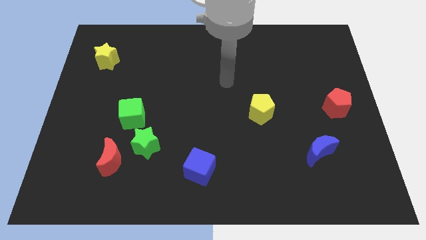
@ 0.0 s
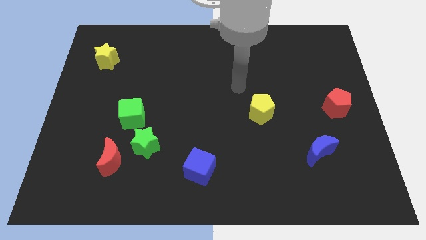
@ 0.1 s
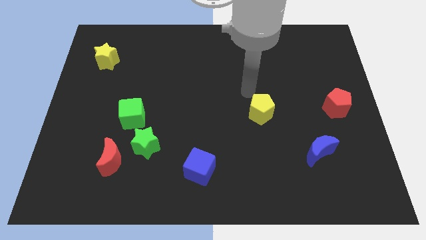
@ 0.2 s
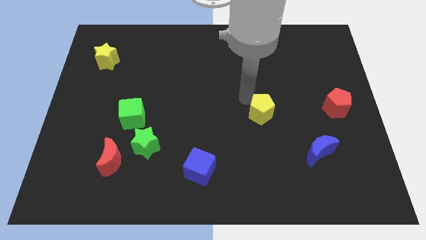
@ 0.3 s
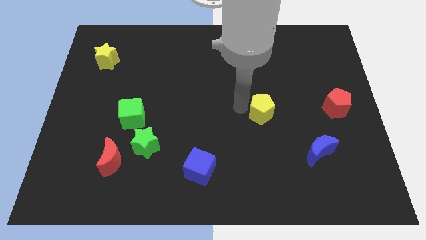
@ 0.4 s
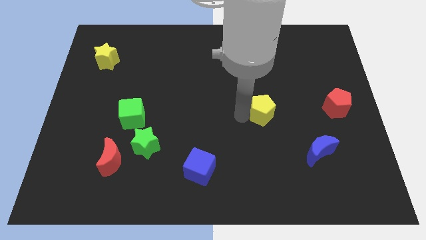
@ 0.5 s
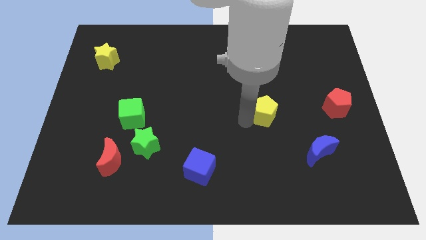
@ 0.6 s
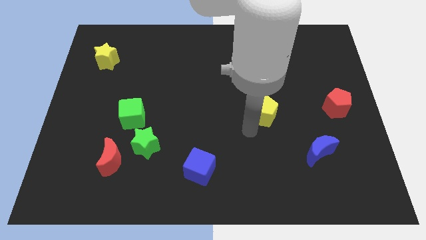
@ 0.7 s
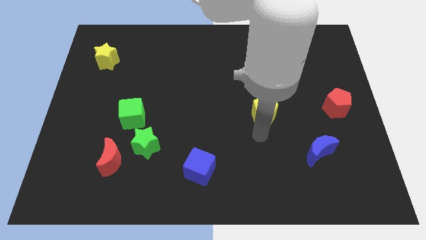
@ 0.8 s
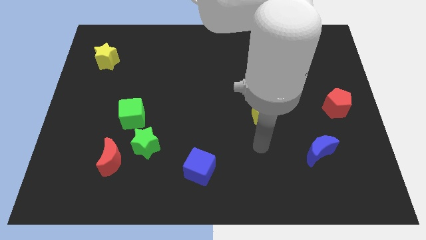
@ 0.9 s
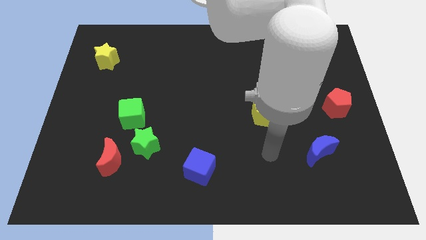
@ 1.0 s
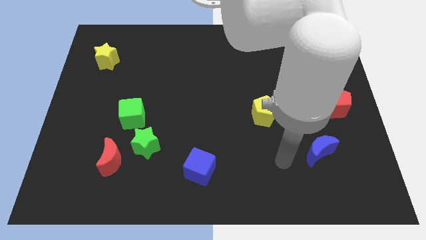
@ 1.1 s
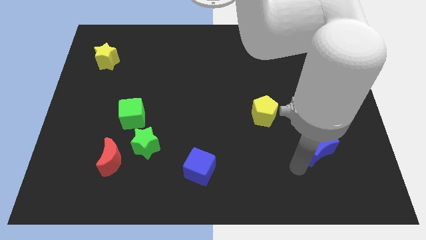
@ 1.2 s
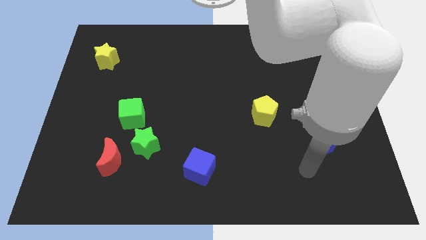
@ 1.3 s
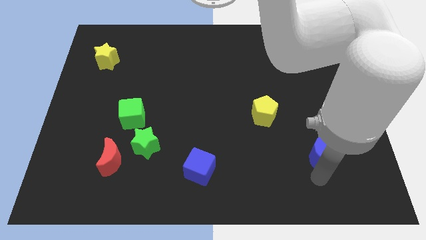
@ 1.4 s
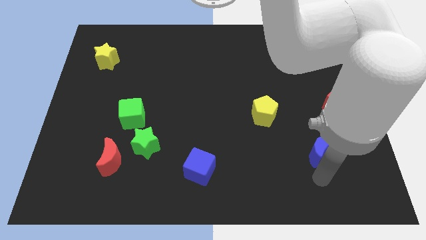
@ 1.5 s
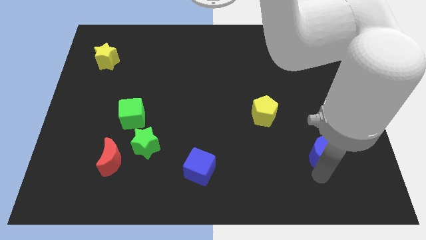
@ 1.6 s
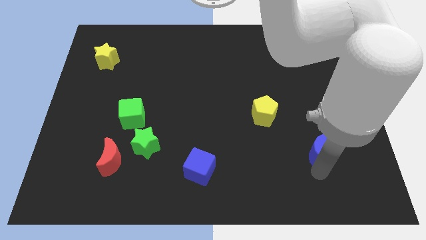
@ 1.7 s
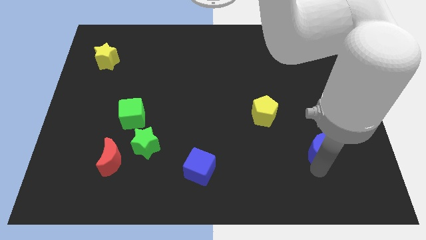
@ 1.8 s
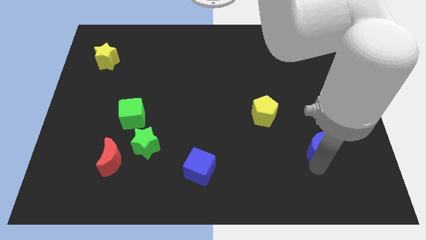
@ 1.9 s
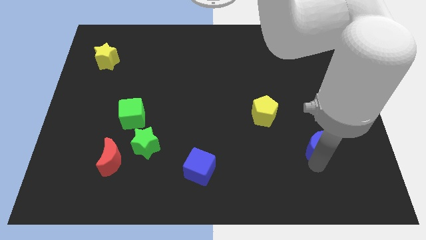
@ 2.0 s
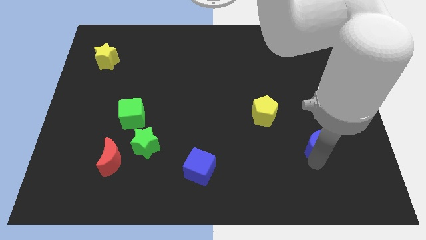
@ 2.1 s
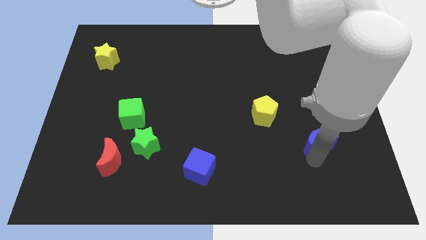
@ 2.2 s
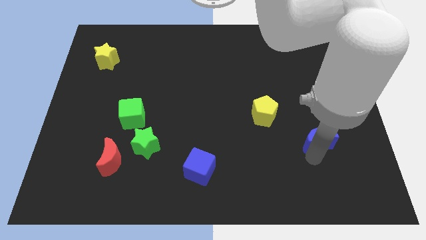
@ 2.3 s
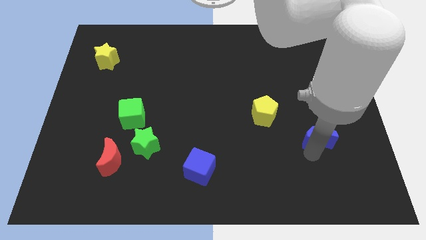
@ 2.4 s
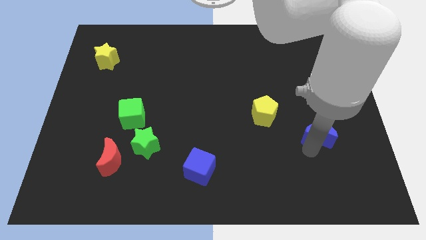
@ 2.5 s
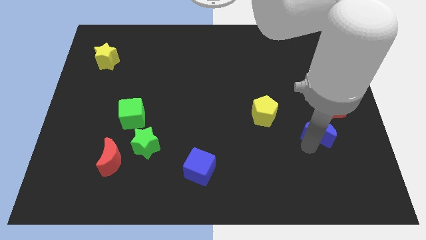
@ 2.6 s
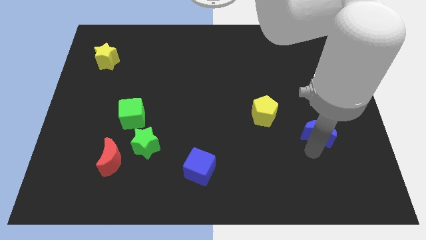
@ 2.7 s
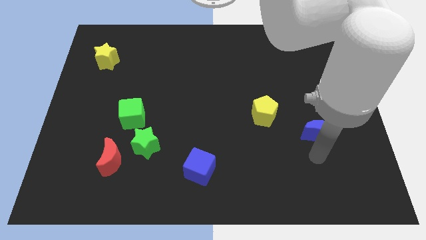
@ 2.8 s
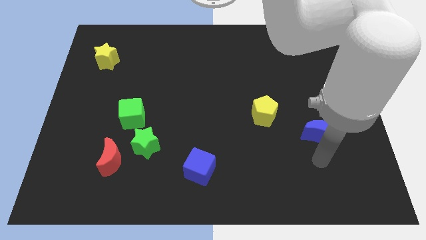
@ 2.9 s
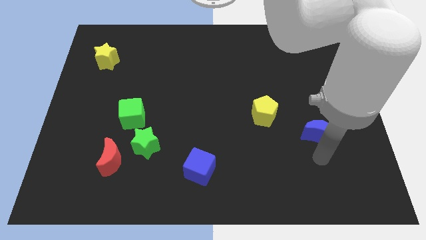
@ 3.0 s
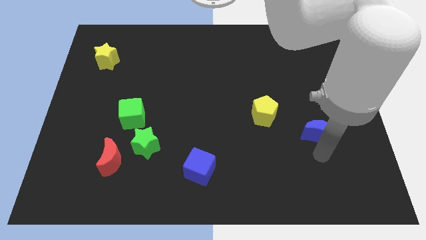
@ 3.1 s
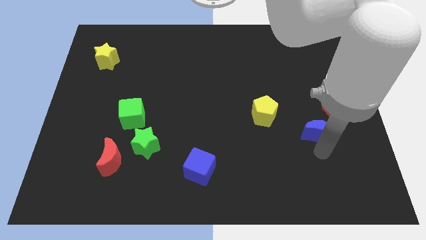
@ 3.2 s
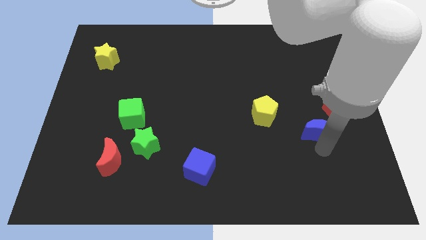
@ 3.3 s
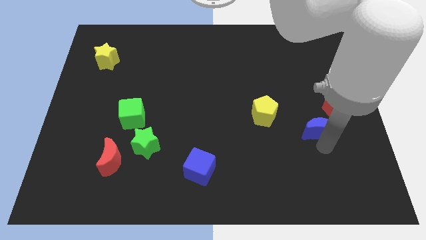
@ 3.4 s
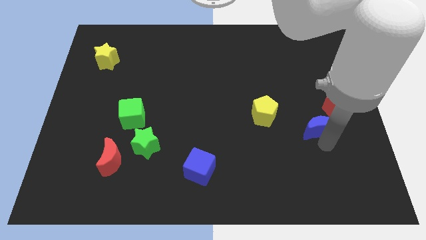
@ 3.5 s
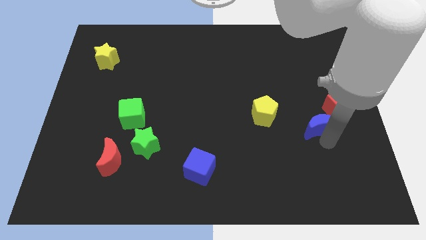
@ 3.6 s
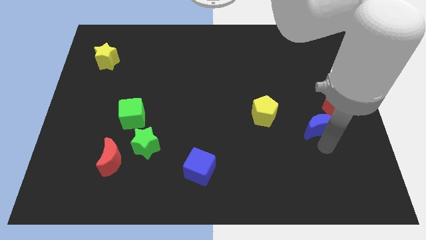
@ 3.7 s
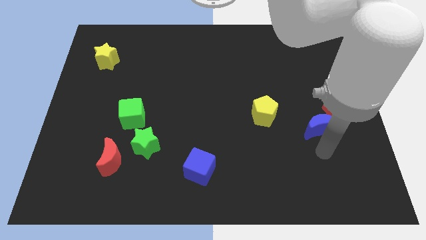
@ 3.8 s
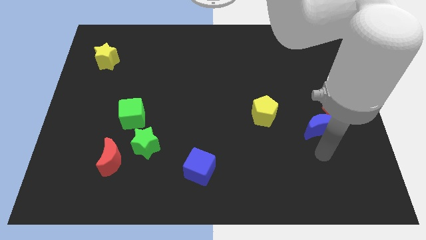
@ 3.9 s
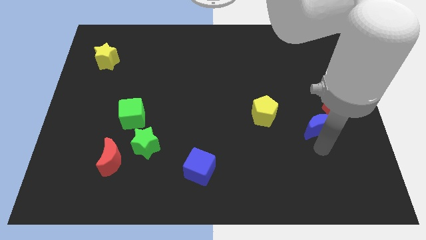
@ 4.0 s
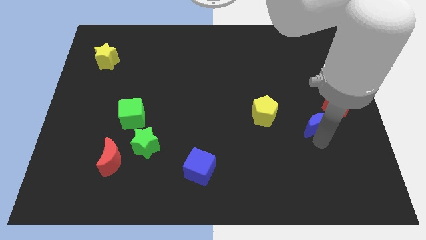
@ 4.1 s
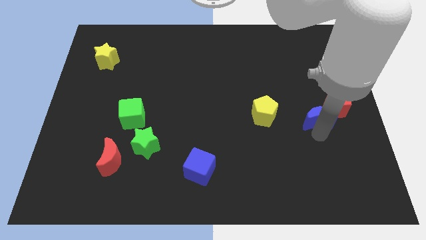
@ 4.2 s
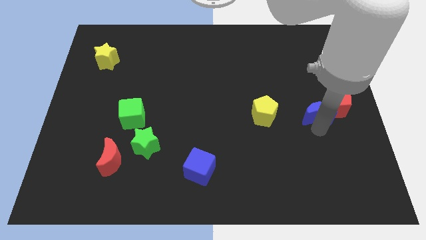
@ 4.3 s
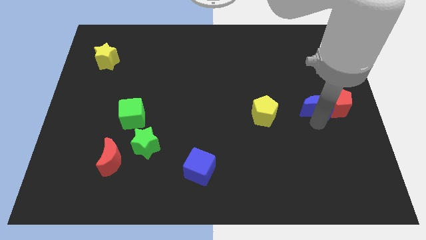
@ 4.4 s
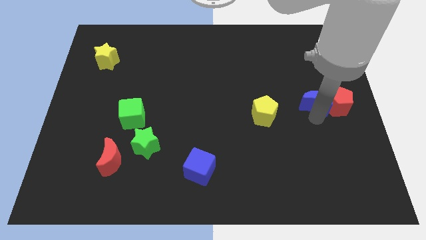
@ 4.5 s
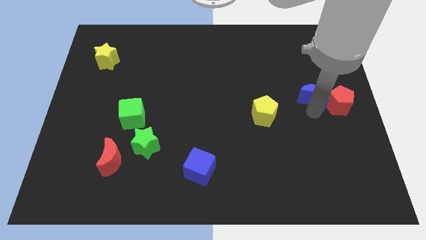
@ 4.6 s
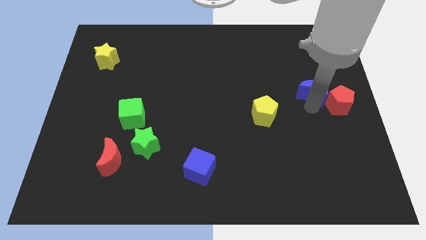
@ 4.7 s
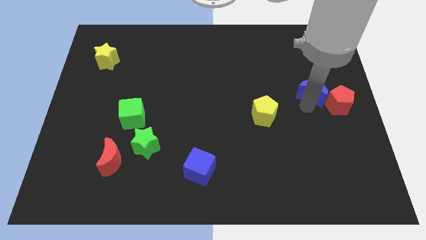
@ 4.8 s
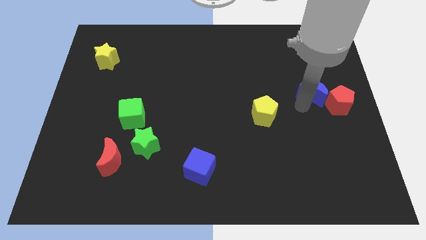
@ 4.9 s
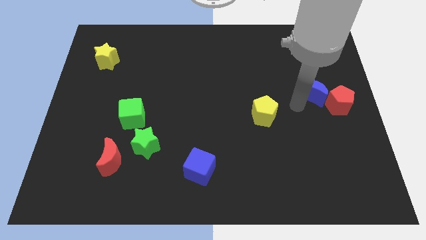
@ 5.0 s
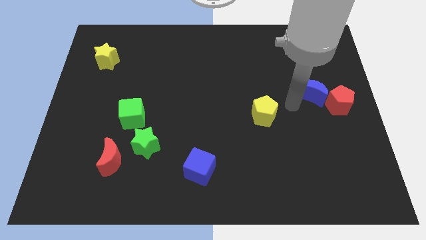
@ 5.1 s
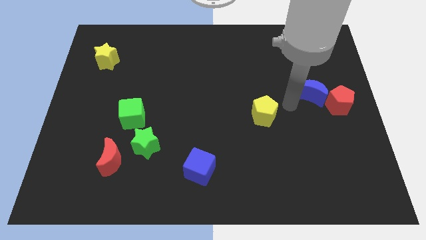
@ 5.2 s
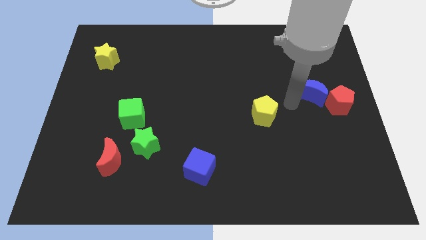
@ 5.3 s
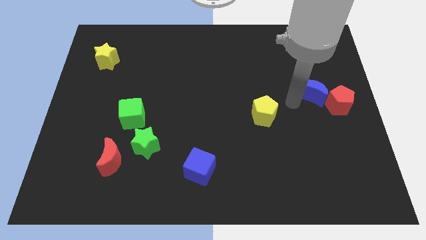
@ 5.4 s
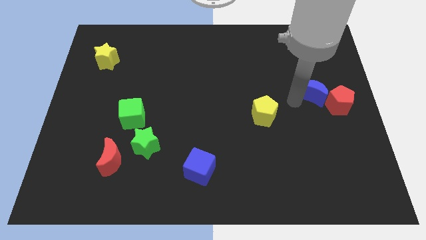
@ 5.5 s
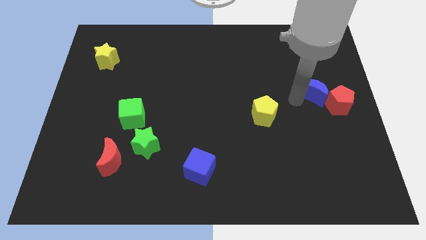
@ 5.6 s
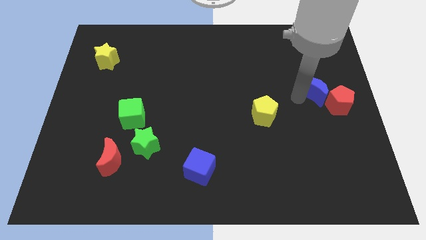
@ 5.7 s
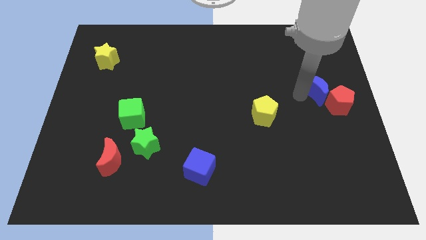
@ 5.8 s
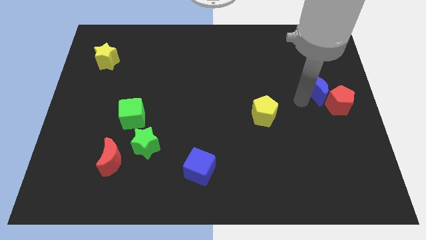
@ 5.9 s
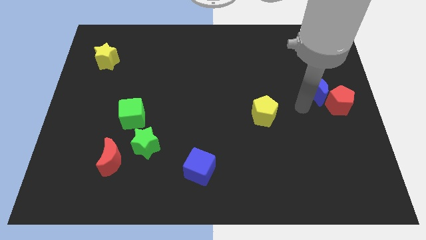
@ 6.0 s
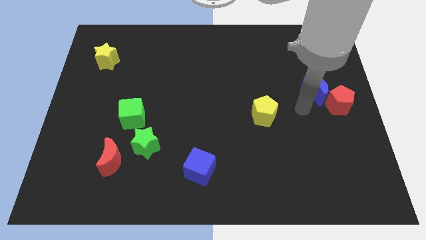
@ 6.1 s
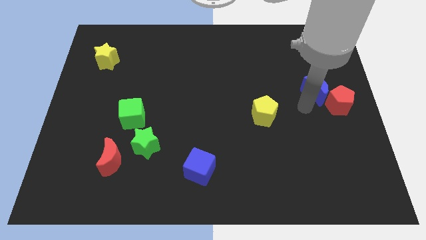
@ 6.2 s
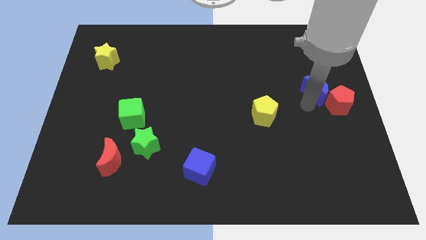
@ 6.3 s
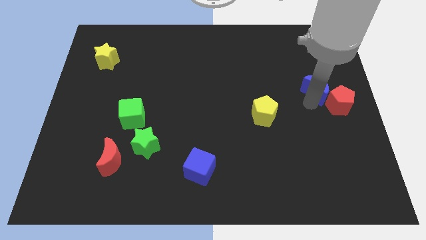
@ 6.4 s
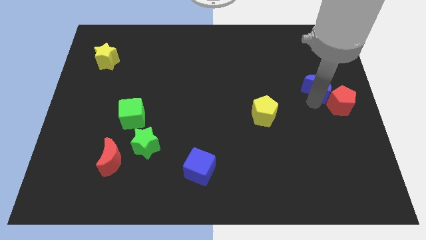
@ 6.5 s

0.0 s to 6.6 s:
put the blue moon to the top of the red pentagon

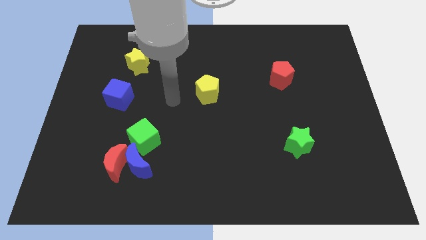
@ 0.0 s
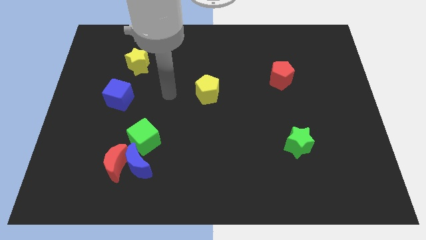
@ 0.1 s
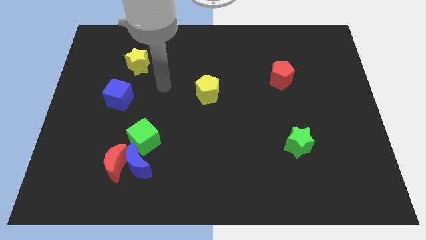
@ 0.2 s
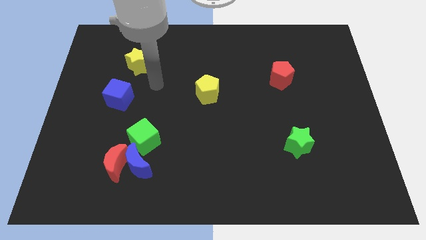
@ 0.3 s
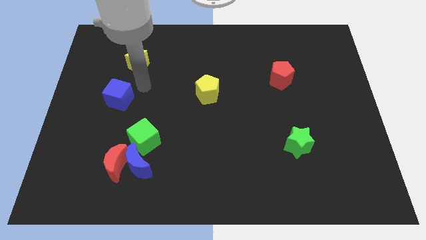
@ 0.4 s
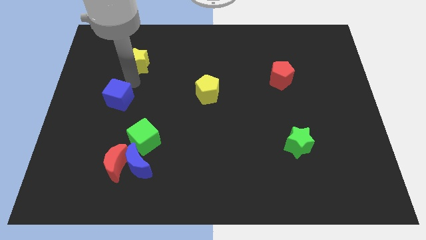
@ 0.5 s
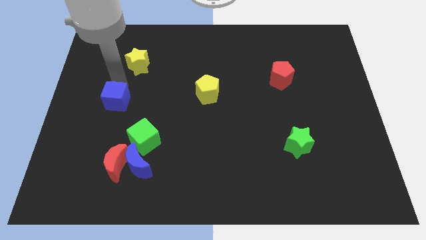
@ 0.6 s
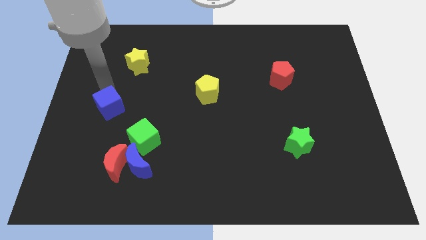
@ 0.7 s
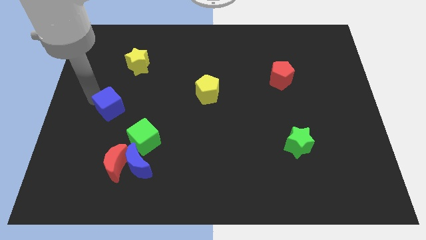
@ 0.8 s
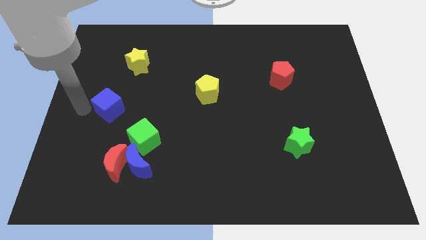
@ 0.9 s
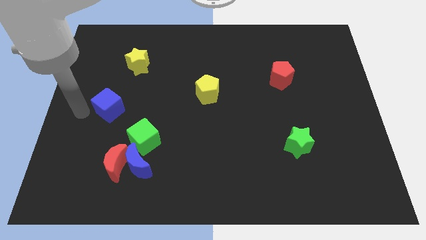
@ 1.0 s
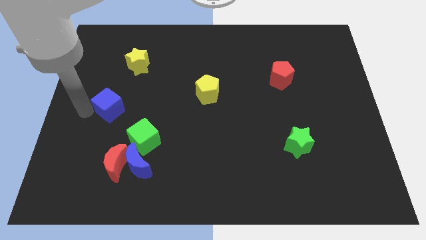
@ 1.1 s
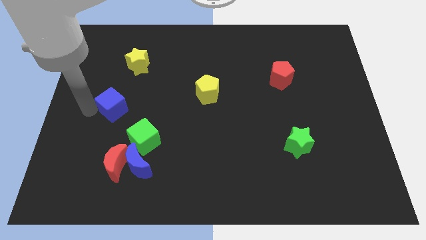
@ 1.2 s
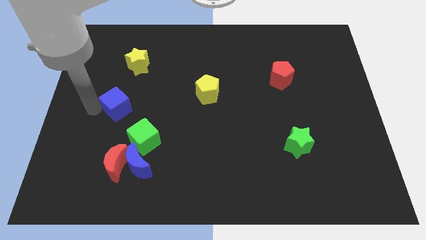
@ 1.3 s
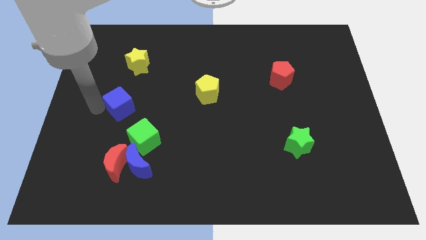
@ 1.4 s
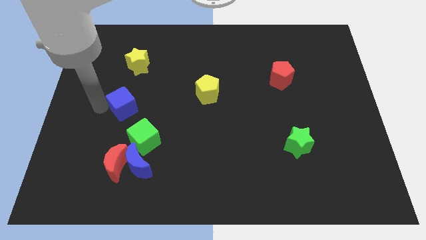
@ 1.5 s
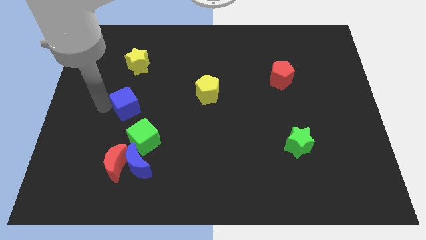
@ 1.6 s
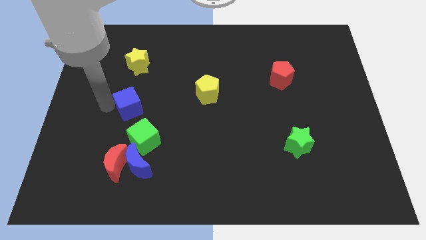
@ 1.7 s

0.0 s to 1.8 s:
move the blue cube above the green cube
